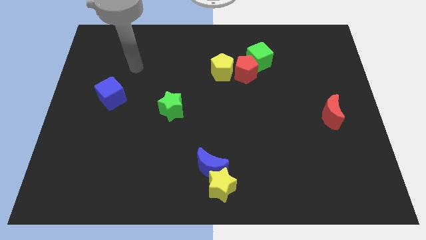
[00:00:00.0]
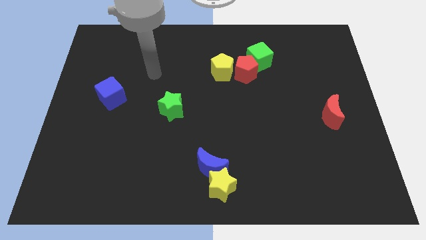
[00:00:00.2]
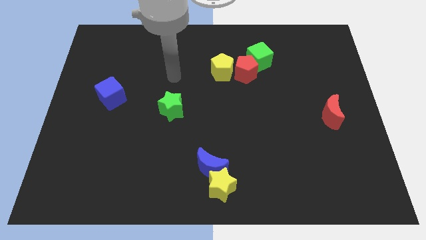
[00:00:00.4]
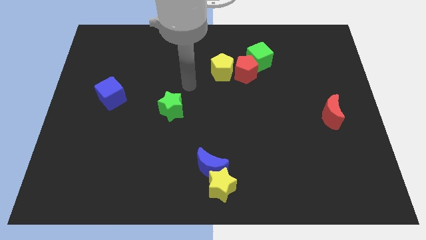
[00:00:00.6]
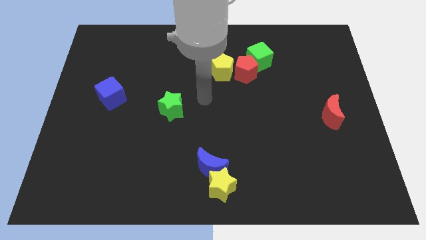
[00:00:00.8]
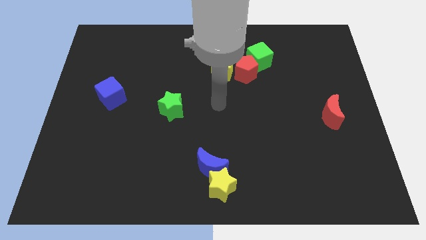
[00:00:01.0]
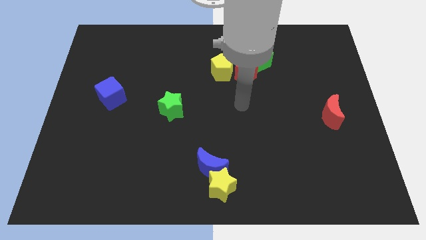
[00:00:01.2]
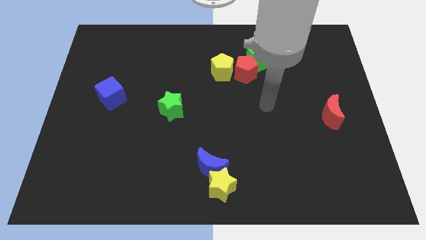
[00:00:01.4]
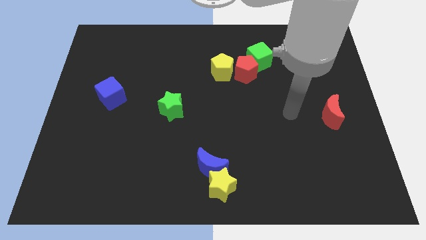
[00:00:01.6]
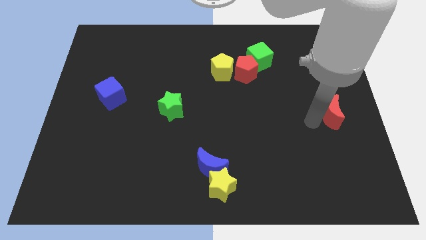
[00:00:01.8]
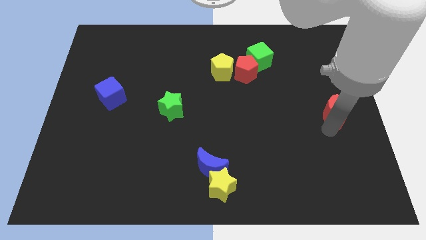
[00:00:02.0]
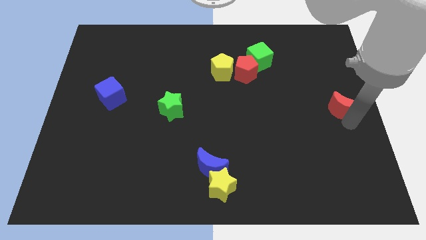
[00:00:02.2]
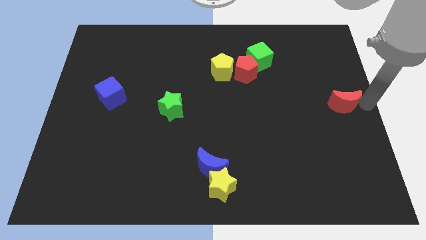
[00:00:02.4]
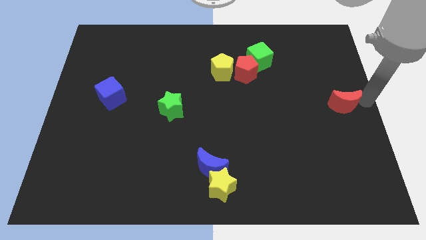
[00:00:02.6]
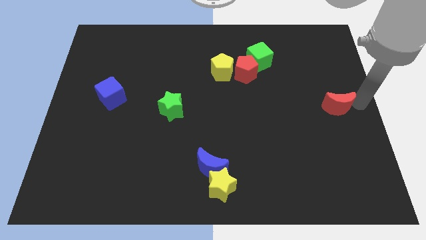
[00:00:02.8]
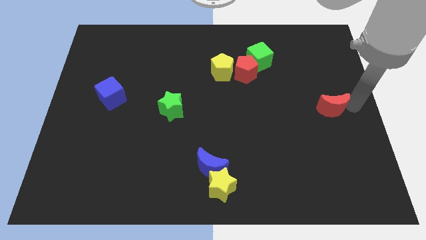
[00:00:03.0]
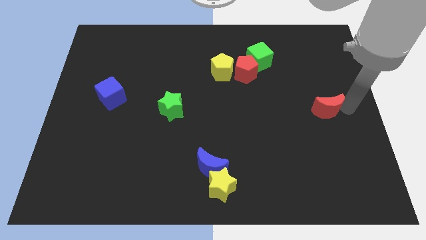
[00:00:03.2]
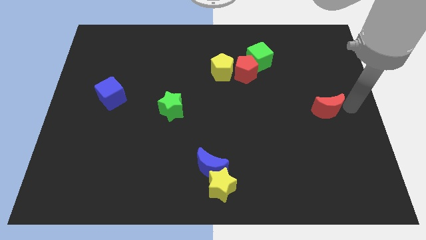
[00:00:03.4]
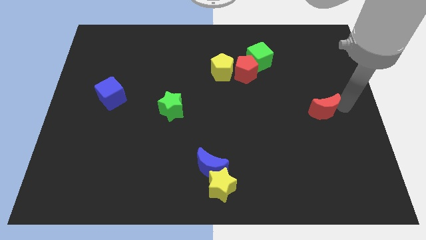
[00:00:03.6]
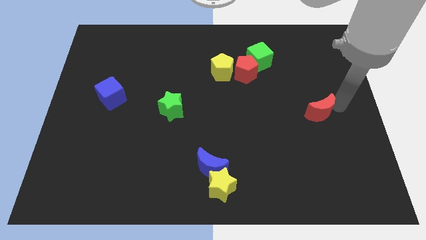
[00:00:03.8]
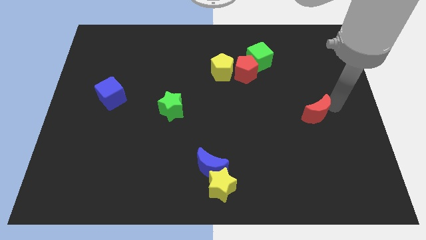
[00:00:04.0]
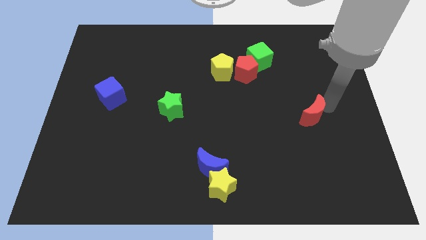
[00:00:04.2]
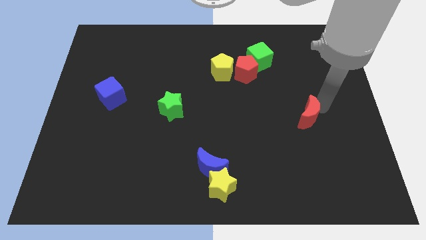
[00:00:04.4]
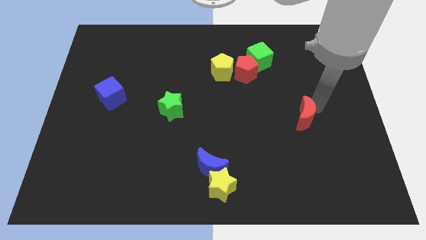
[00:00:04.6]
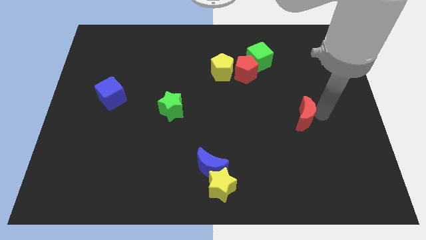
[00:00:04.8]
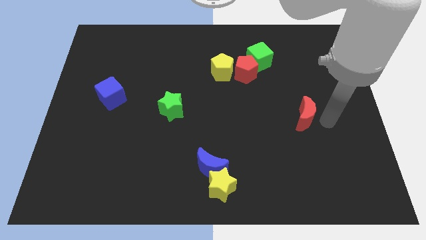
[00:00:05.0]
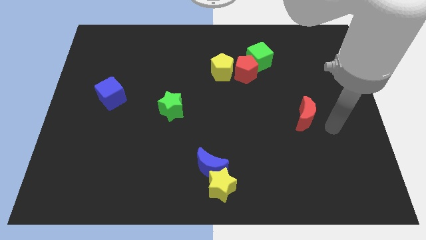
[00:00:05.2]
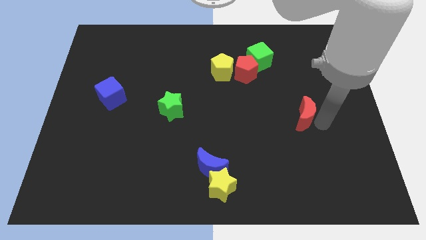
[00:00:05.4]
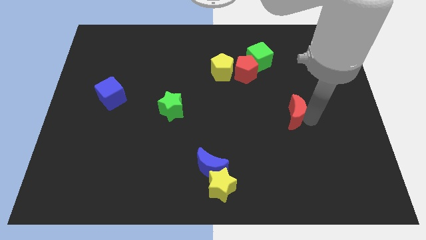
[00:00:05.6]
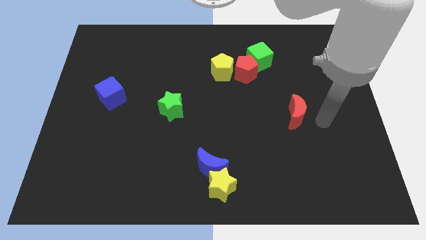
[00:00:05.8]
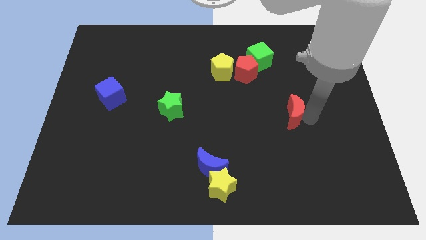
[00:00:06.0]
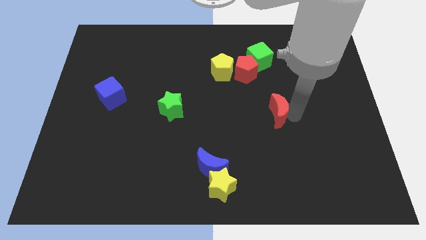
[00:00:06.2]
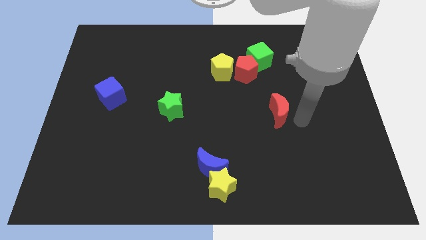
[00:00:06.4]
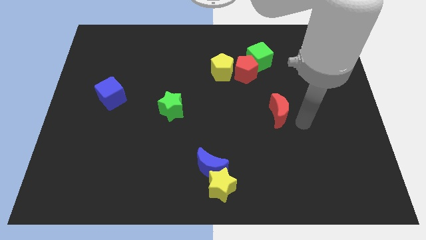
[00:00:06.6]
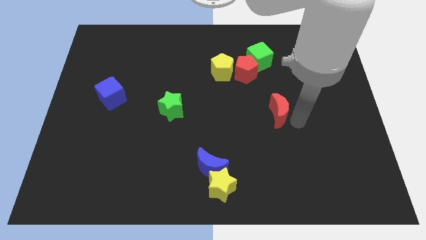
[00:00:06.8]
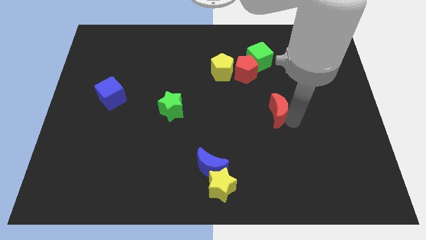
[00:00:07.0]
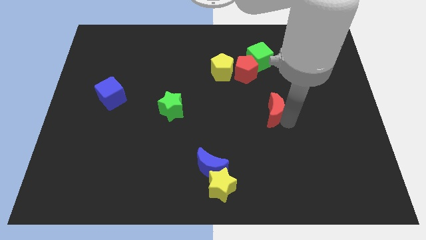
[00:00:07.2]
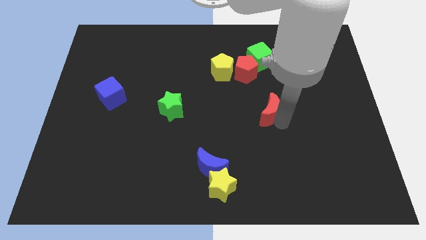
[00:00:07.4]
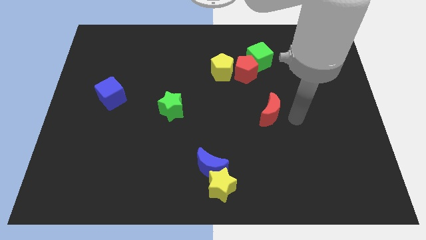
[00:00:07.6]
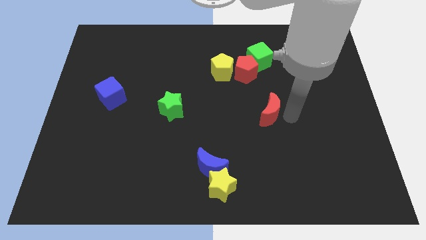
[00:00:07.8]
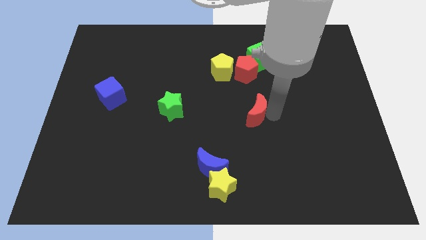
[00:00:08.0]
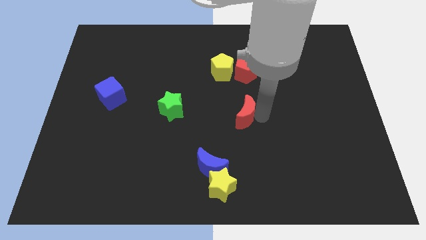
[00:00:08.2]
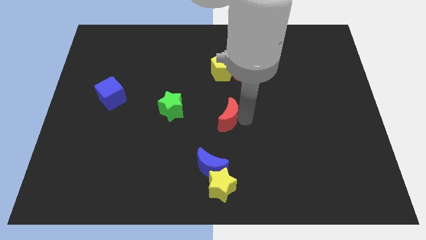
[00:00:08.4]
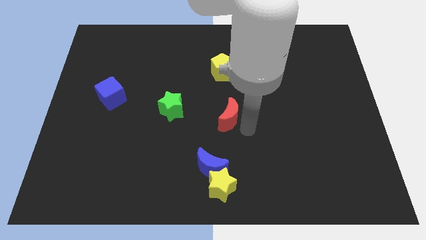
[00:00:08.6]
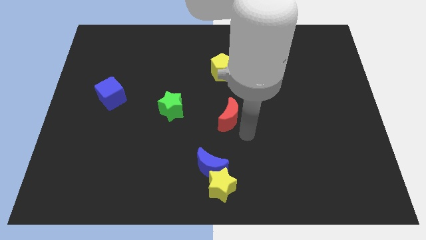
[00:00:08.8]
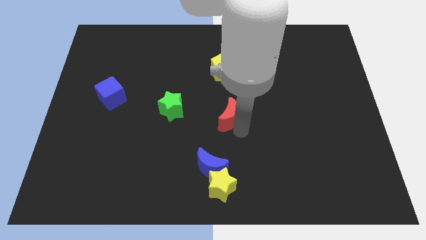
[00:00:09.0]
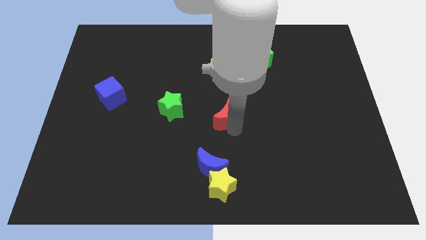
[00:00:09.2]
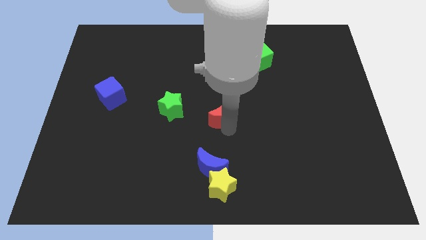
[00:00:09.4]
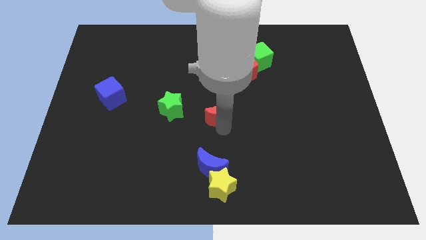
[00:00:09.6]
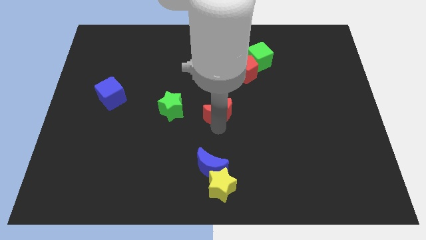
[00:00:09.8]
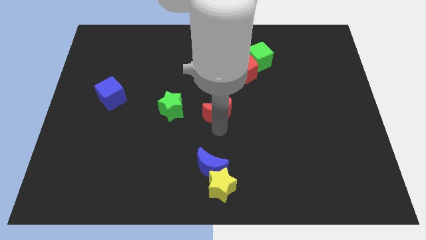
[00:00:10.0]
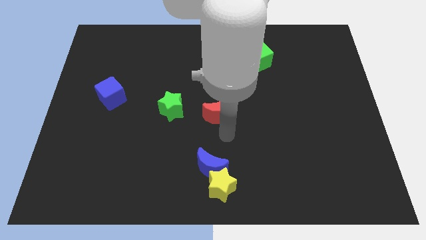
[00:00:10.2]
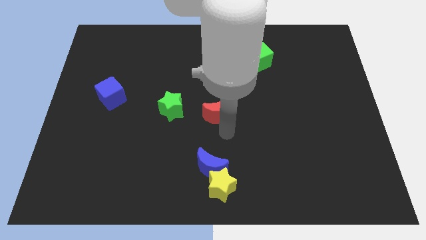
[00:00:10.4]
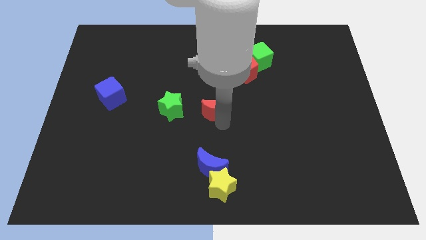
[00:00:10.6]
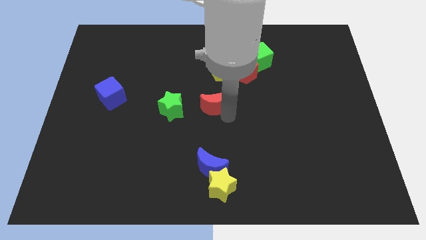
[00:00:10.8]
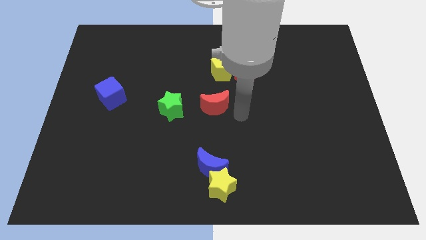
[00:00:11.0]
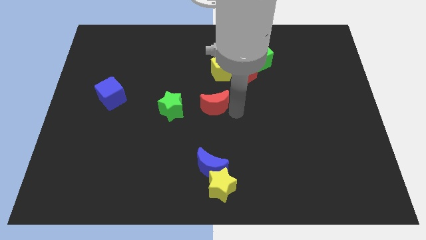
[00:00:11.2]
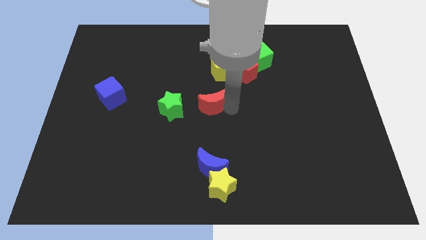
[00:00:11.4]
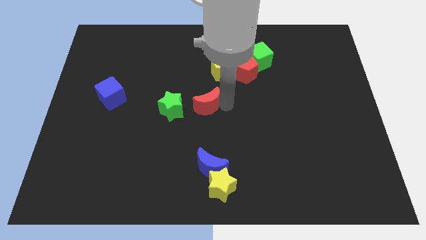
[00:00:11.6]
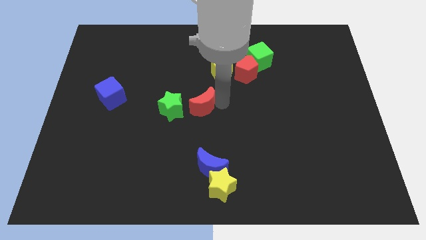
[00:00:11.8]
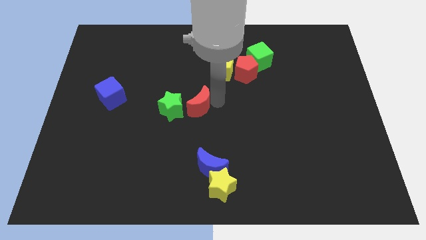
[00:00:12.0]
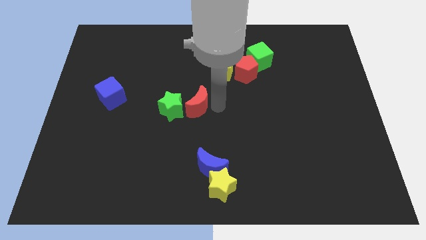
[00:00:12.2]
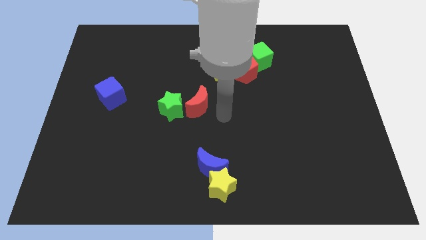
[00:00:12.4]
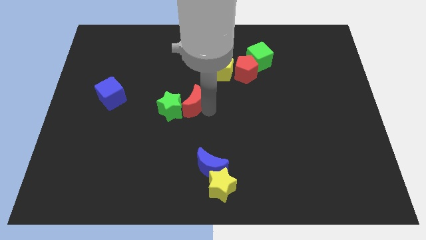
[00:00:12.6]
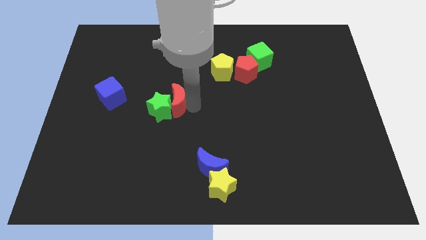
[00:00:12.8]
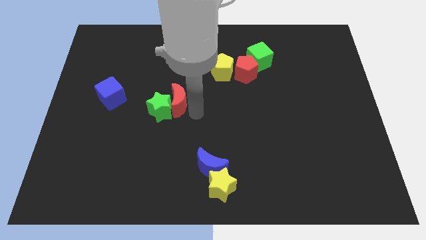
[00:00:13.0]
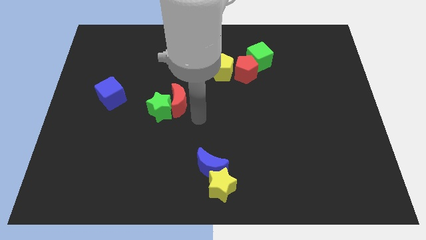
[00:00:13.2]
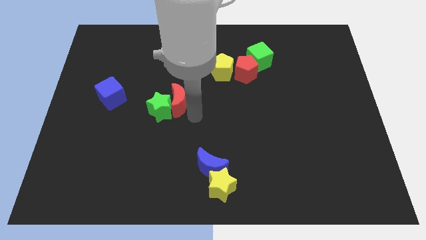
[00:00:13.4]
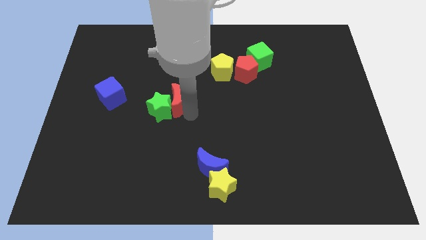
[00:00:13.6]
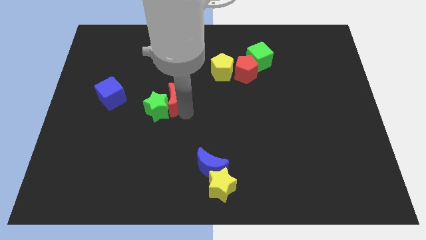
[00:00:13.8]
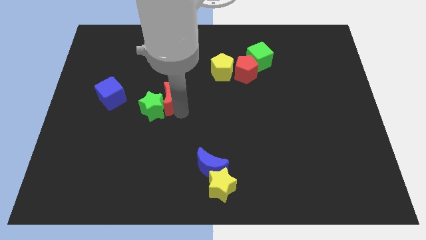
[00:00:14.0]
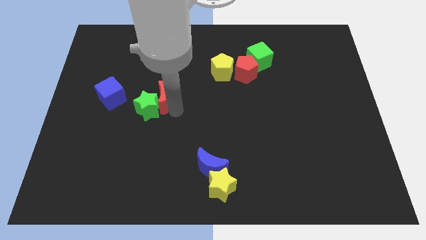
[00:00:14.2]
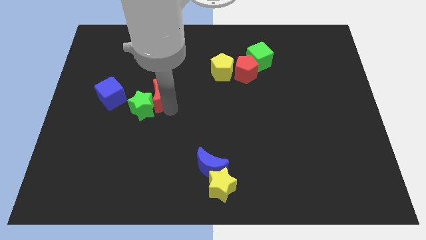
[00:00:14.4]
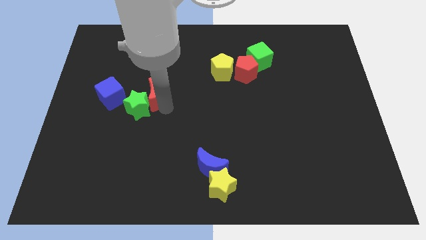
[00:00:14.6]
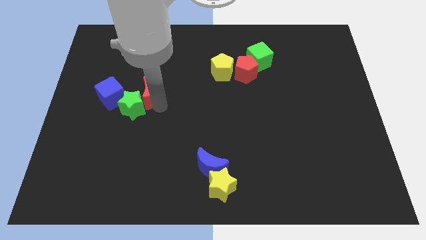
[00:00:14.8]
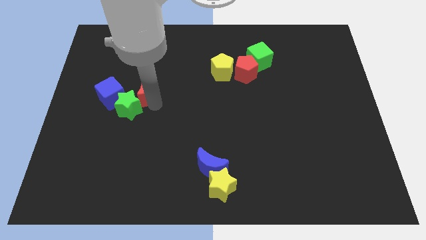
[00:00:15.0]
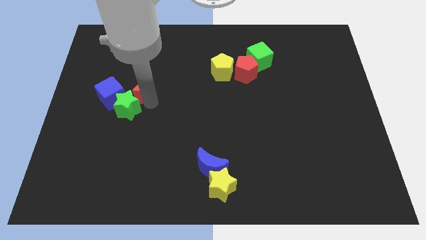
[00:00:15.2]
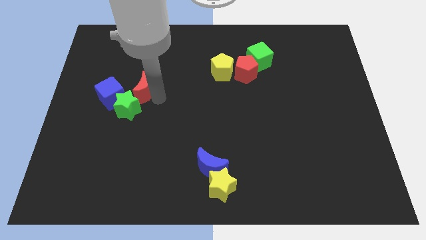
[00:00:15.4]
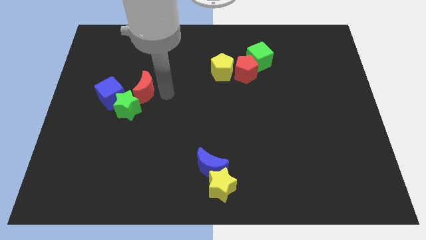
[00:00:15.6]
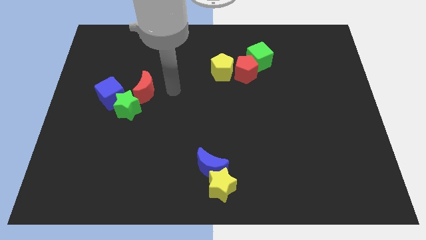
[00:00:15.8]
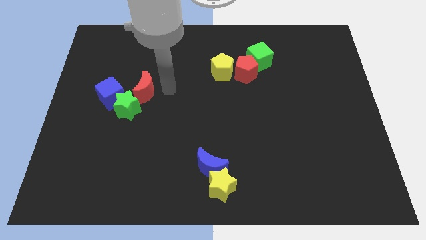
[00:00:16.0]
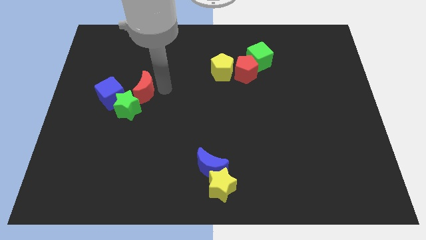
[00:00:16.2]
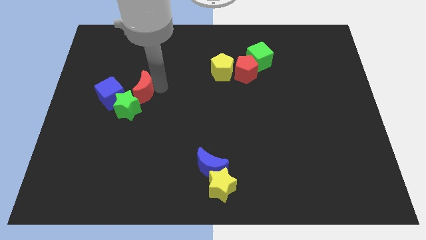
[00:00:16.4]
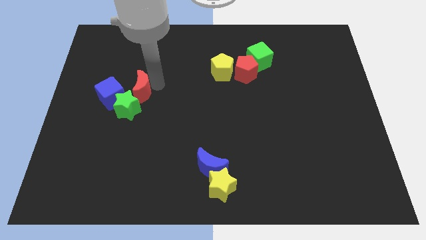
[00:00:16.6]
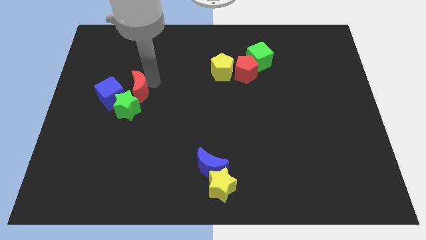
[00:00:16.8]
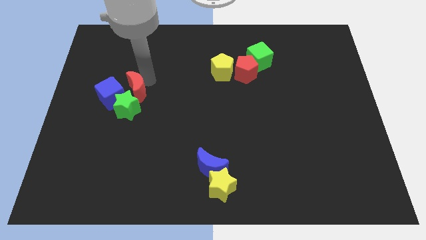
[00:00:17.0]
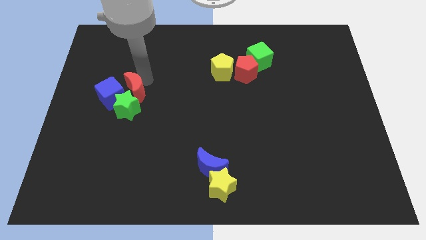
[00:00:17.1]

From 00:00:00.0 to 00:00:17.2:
put the red moon towards the blue cube
